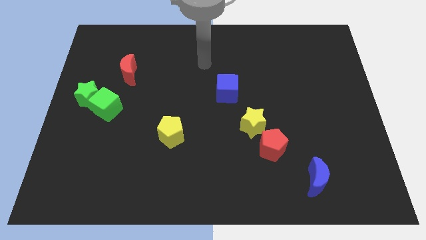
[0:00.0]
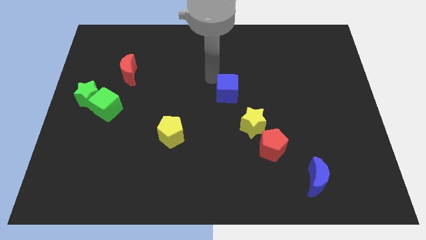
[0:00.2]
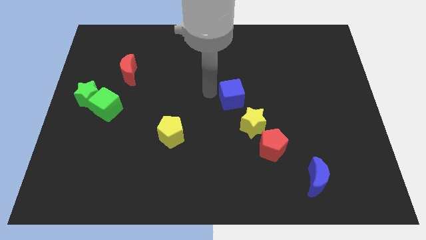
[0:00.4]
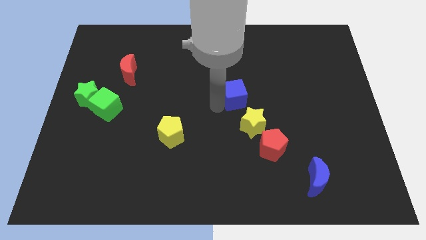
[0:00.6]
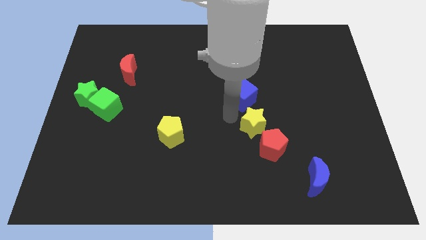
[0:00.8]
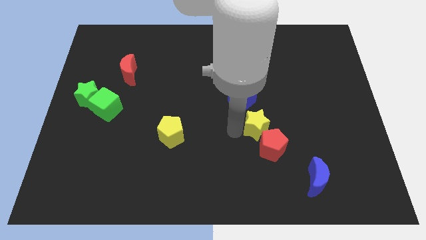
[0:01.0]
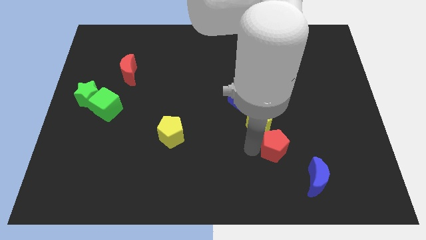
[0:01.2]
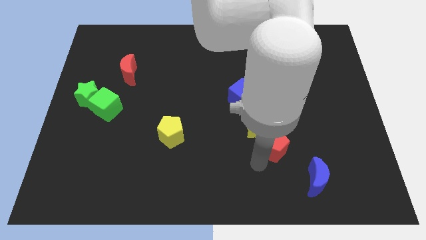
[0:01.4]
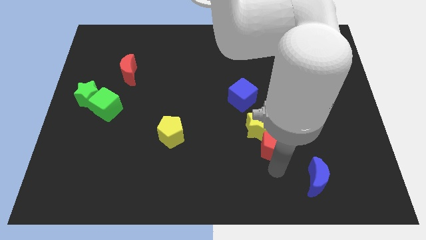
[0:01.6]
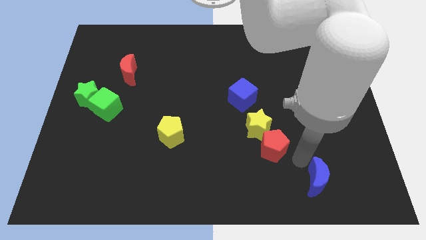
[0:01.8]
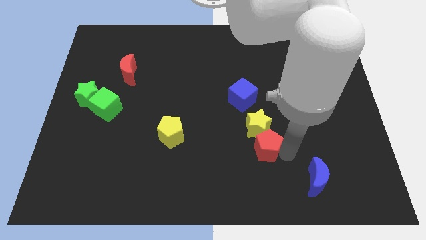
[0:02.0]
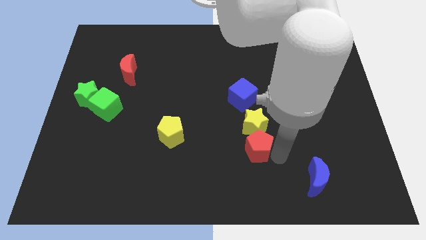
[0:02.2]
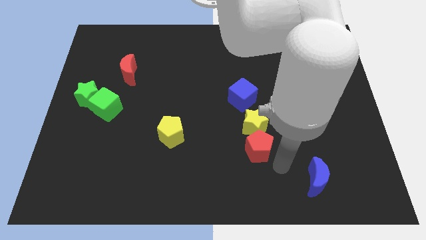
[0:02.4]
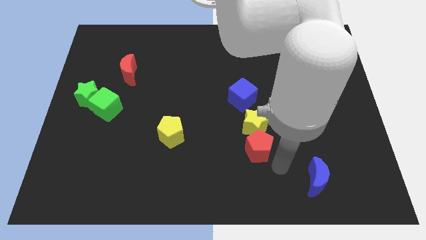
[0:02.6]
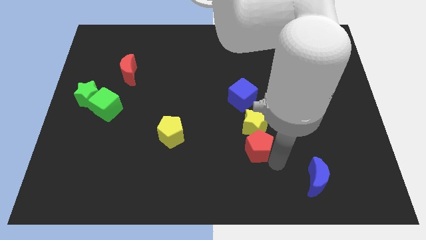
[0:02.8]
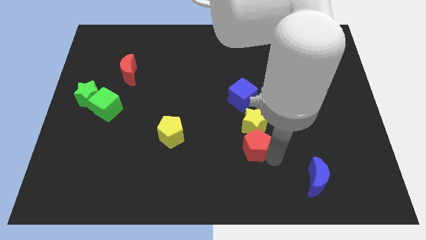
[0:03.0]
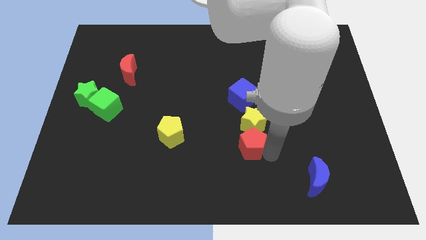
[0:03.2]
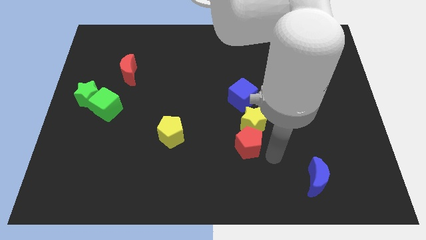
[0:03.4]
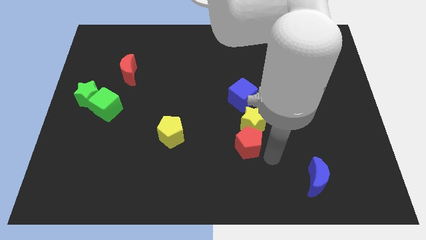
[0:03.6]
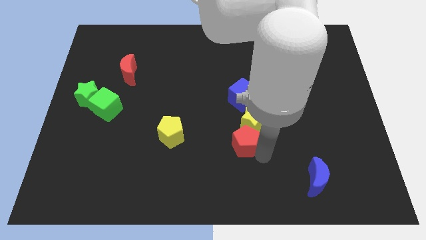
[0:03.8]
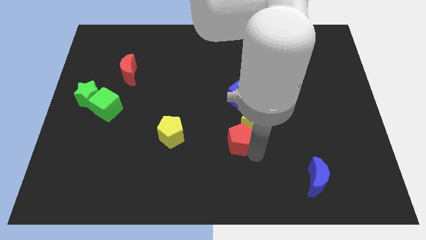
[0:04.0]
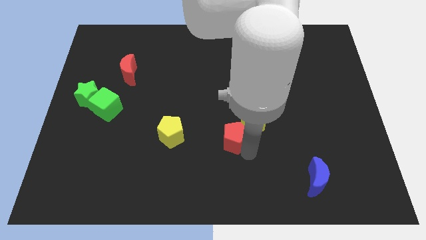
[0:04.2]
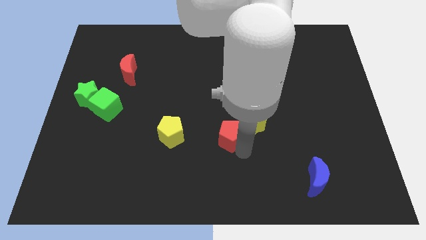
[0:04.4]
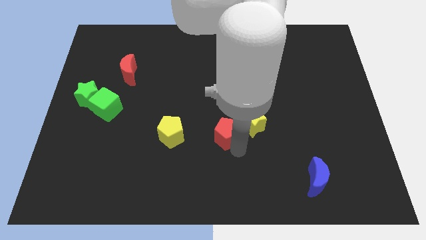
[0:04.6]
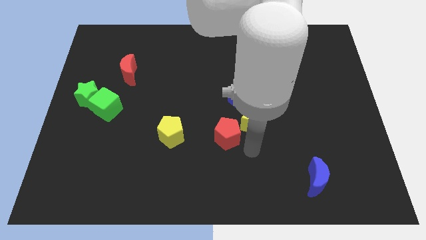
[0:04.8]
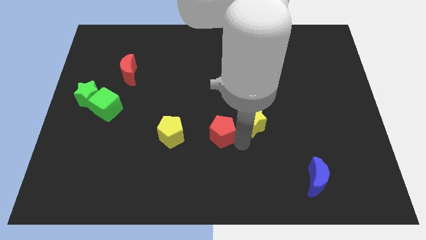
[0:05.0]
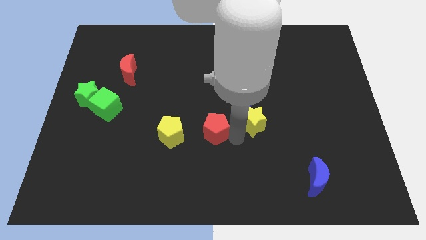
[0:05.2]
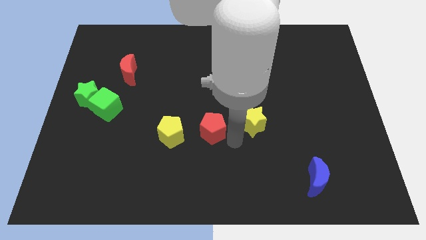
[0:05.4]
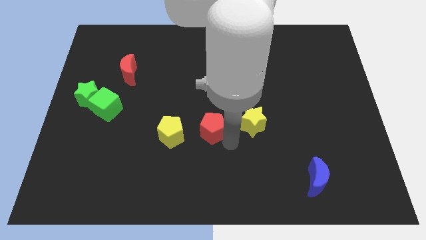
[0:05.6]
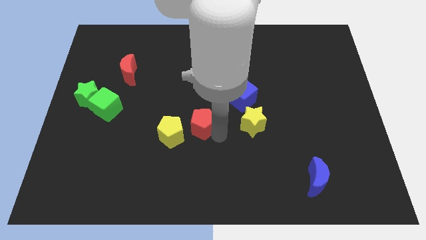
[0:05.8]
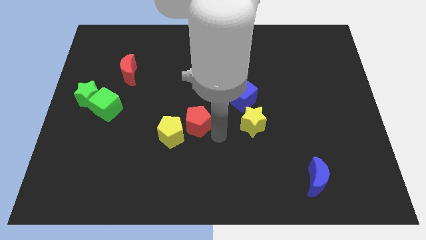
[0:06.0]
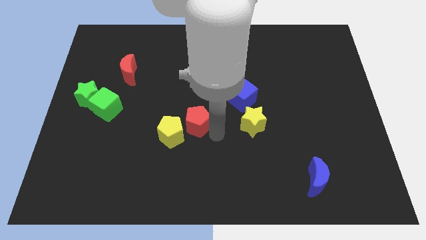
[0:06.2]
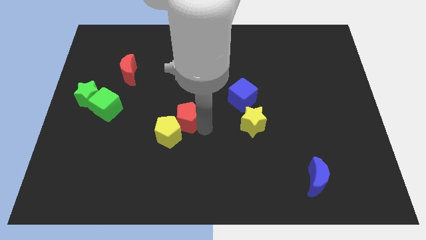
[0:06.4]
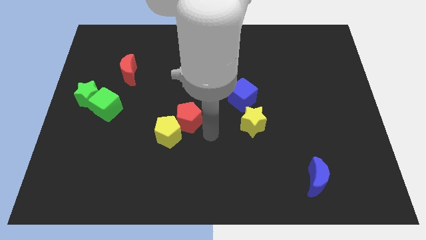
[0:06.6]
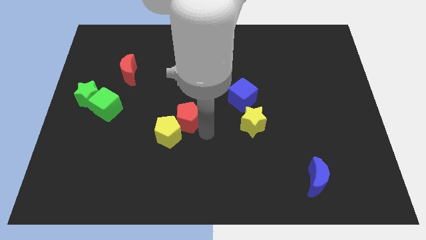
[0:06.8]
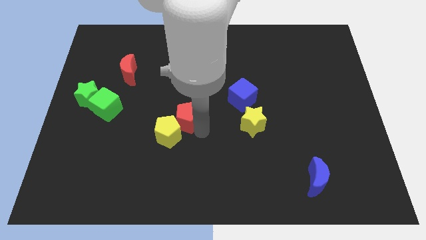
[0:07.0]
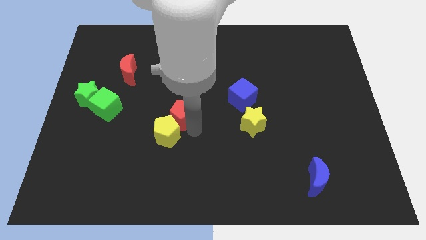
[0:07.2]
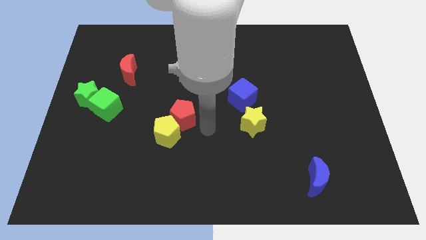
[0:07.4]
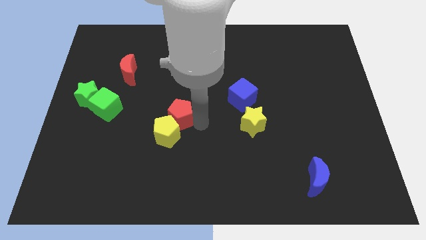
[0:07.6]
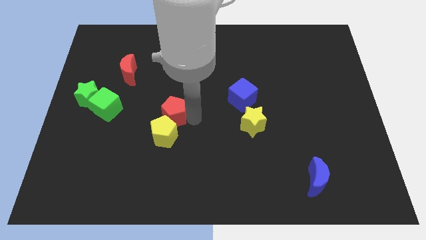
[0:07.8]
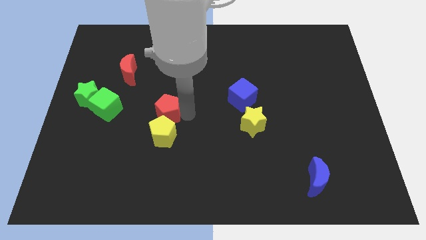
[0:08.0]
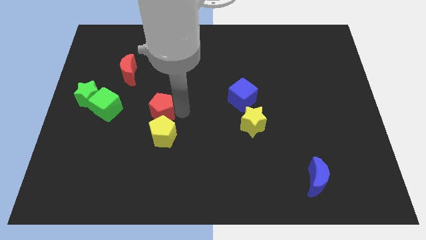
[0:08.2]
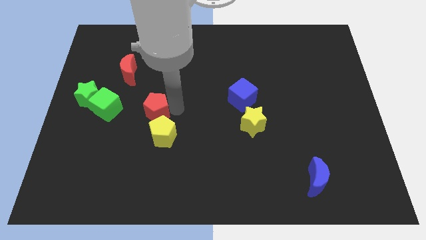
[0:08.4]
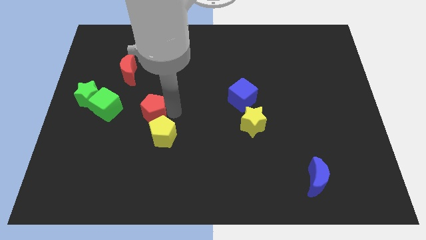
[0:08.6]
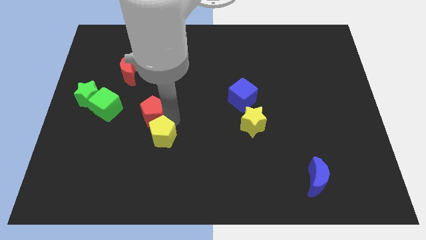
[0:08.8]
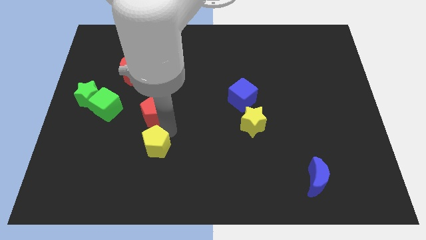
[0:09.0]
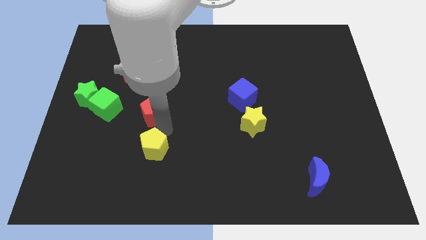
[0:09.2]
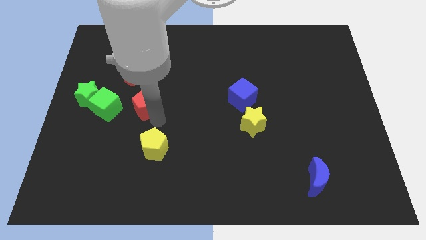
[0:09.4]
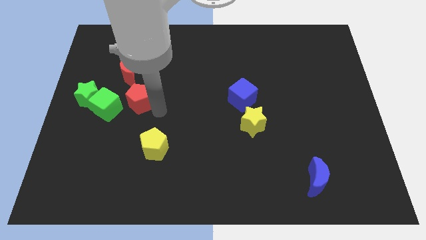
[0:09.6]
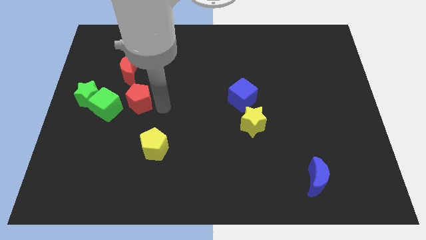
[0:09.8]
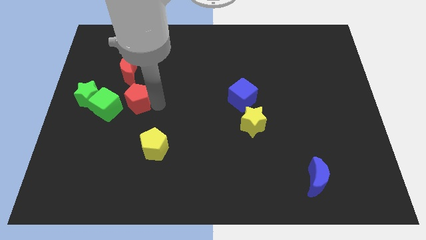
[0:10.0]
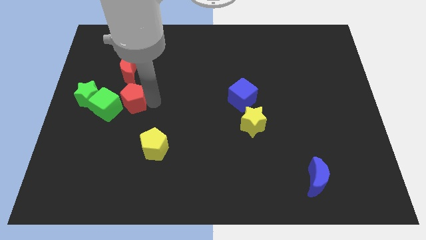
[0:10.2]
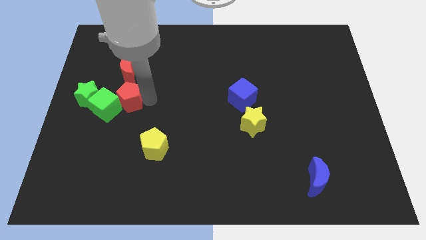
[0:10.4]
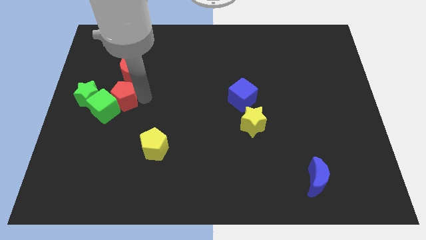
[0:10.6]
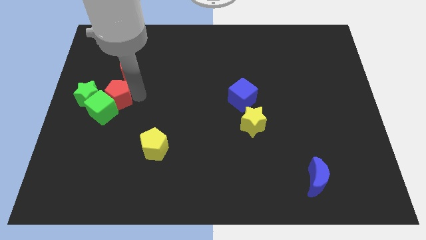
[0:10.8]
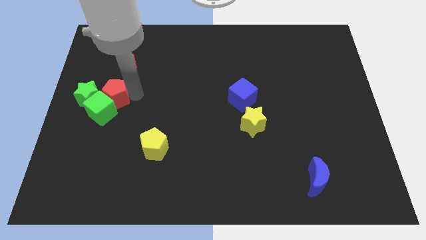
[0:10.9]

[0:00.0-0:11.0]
push the red pentagon close to the green star
